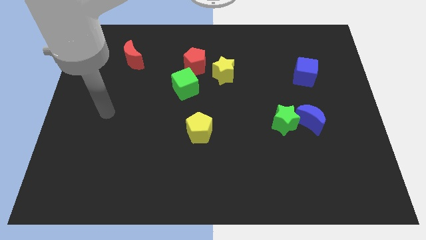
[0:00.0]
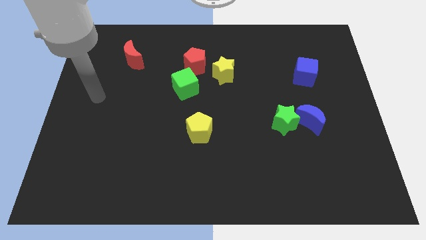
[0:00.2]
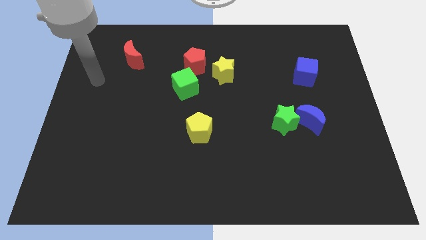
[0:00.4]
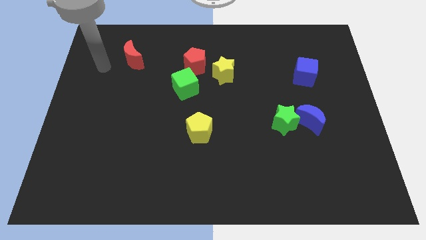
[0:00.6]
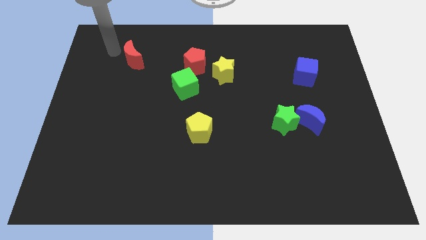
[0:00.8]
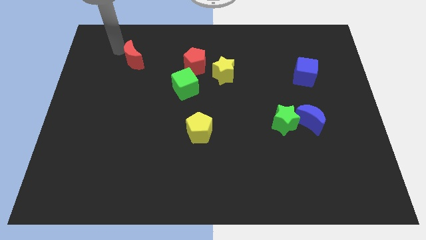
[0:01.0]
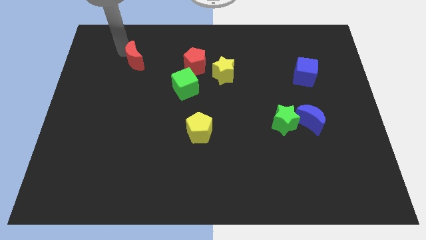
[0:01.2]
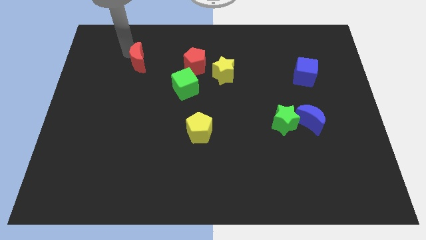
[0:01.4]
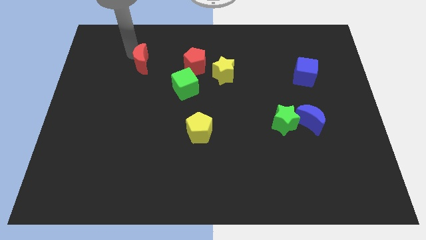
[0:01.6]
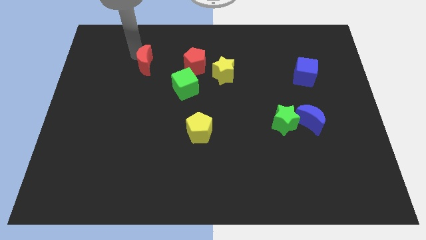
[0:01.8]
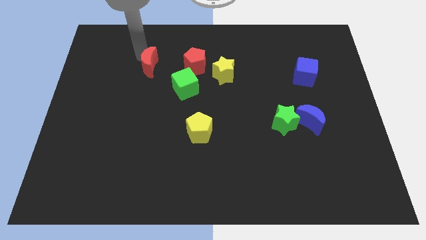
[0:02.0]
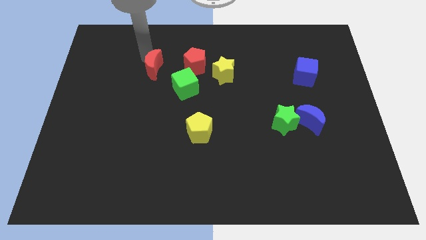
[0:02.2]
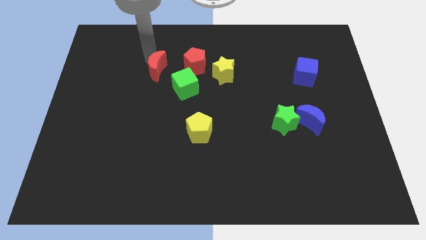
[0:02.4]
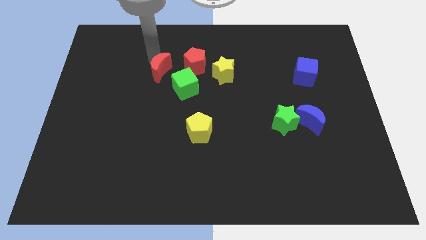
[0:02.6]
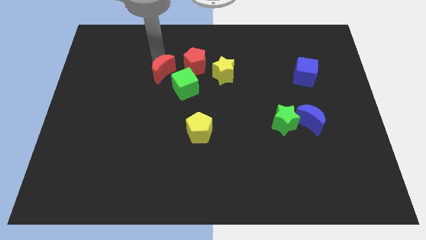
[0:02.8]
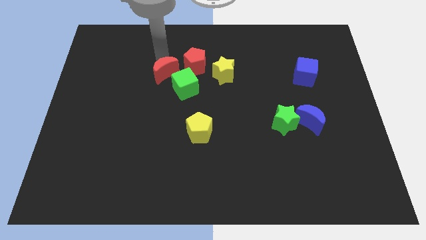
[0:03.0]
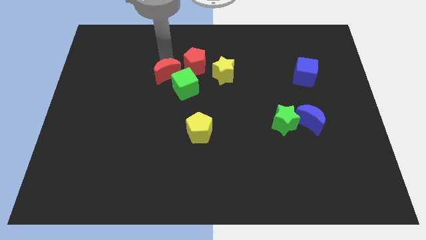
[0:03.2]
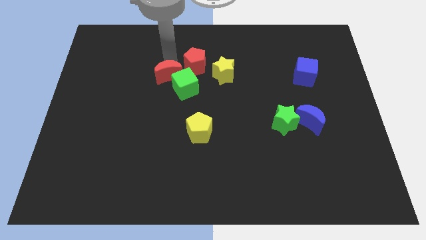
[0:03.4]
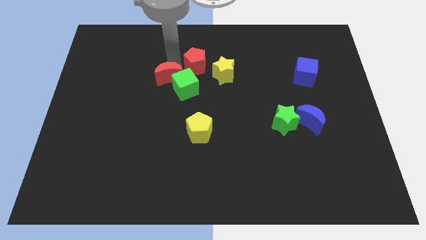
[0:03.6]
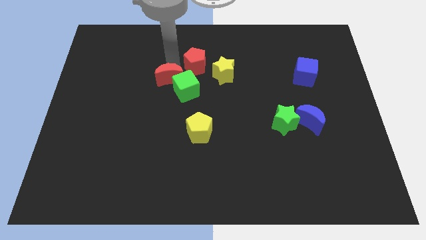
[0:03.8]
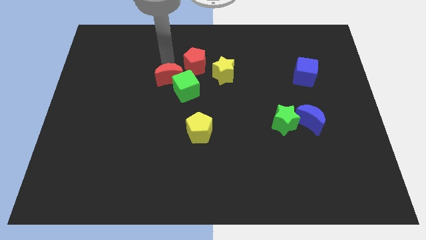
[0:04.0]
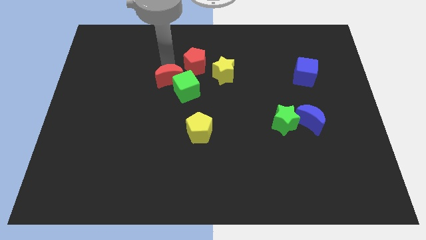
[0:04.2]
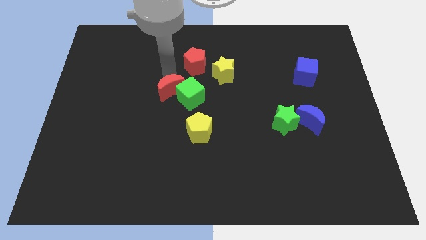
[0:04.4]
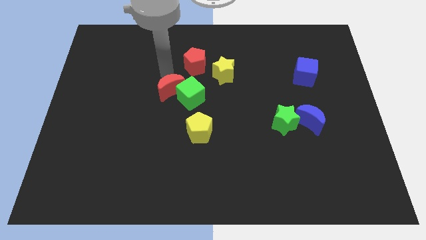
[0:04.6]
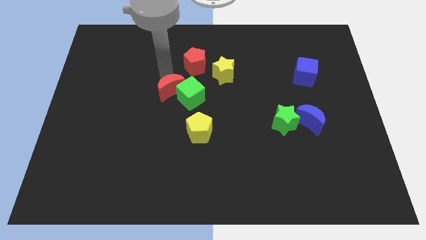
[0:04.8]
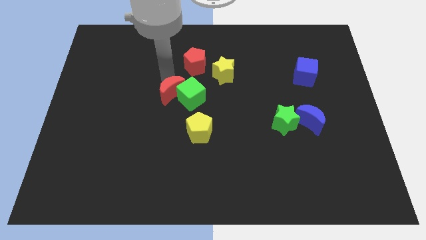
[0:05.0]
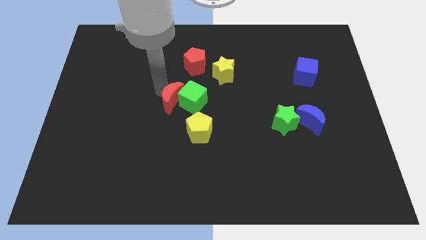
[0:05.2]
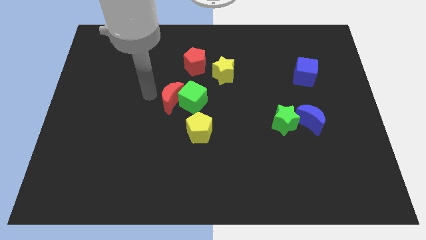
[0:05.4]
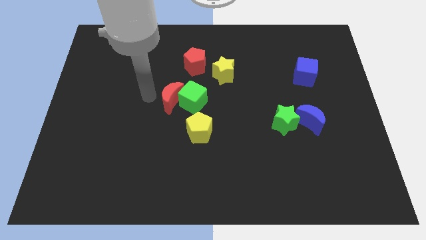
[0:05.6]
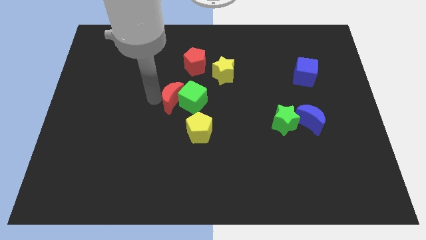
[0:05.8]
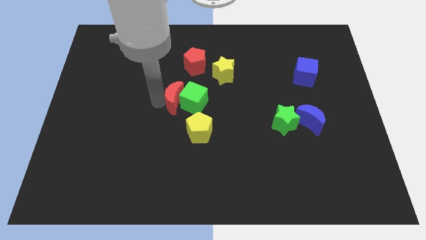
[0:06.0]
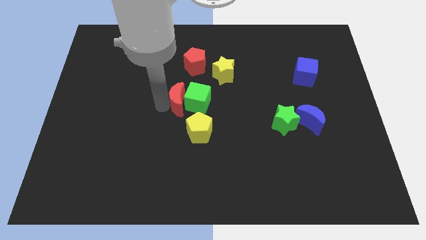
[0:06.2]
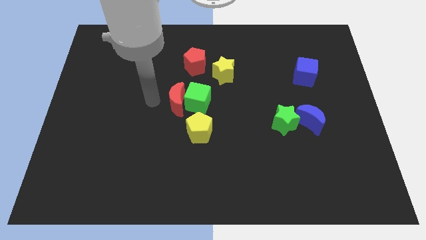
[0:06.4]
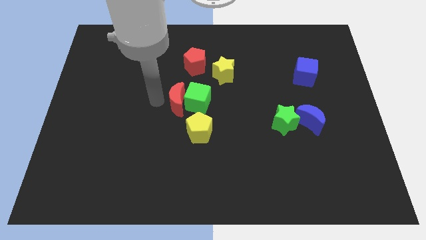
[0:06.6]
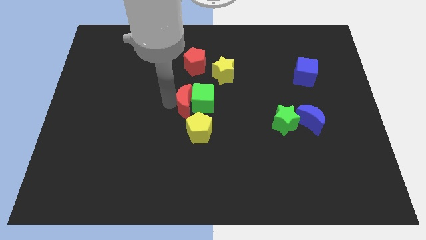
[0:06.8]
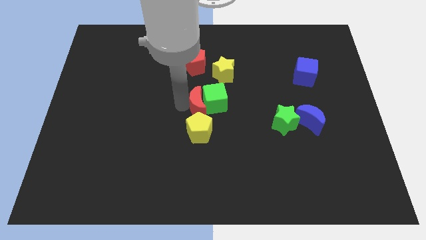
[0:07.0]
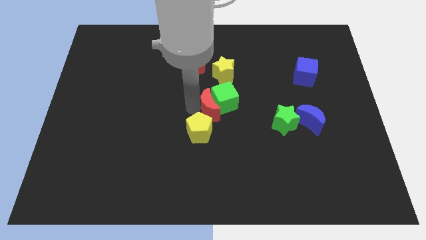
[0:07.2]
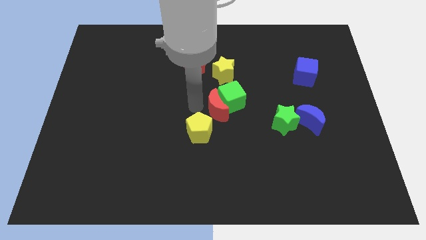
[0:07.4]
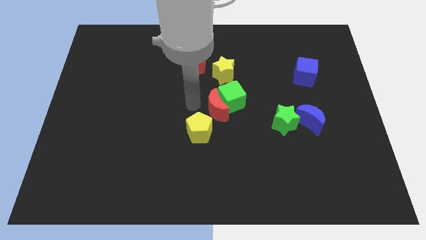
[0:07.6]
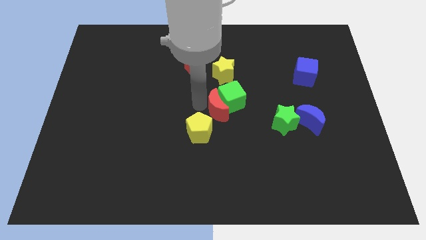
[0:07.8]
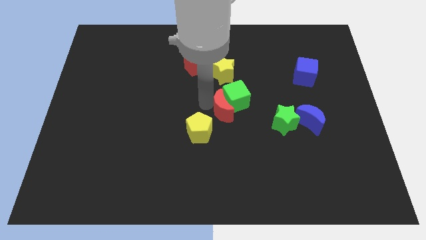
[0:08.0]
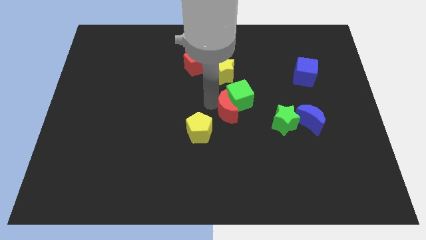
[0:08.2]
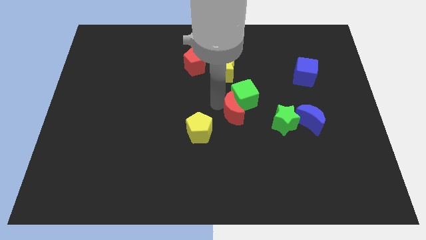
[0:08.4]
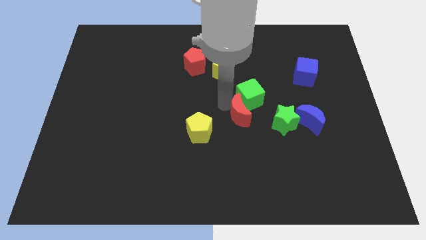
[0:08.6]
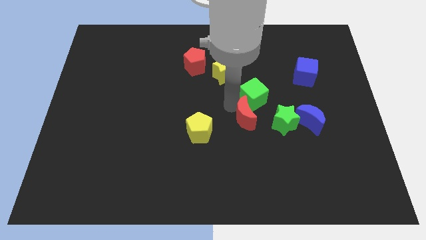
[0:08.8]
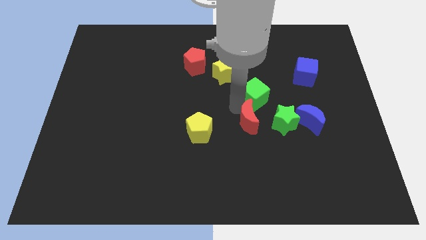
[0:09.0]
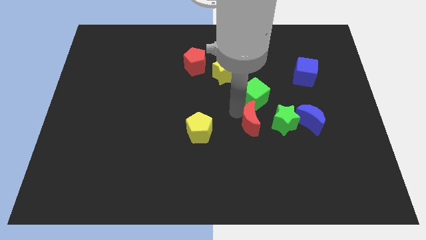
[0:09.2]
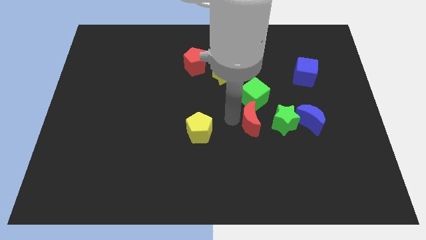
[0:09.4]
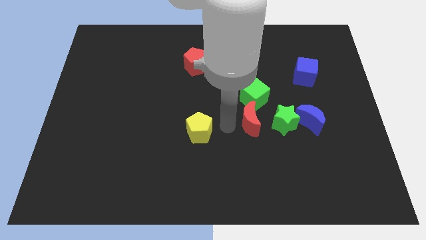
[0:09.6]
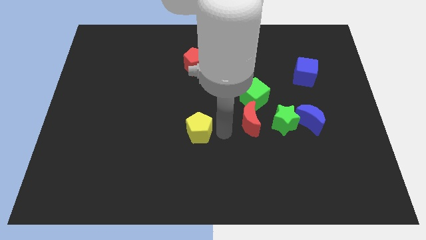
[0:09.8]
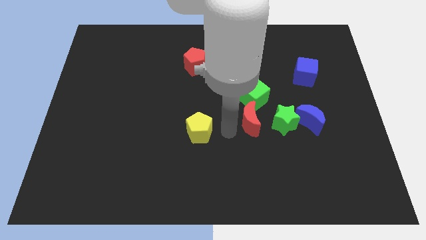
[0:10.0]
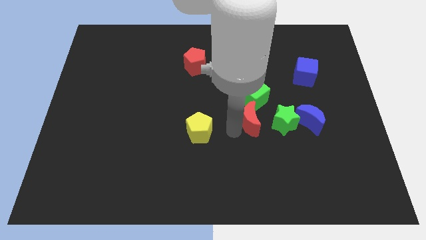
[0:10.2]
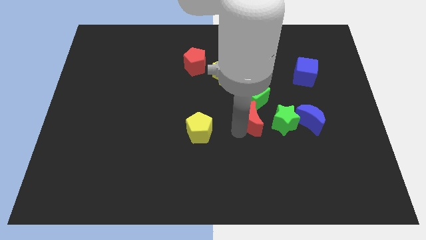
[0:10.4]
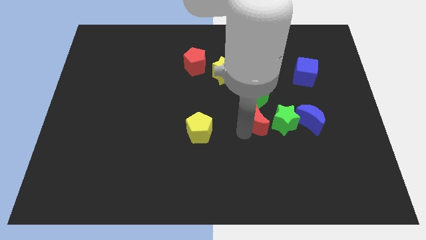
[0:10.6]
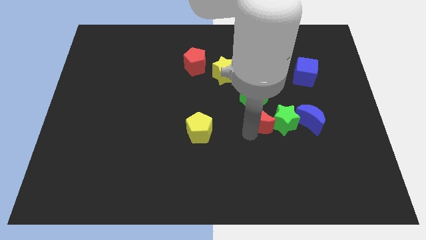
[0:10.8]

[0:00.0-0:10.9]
move the red moon next to the green star

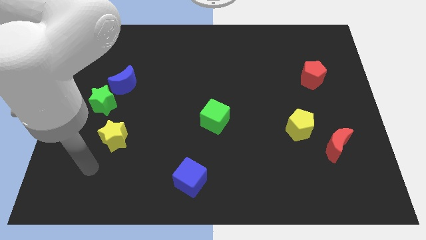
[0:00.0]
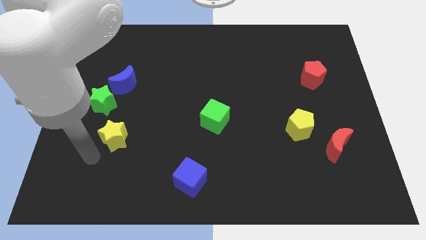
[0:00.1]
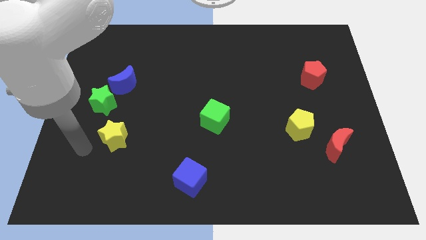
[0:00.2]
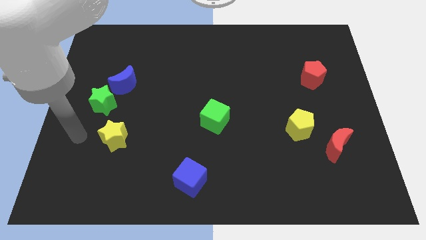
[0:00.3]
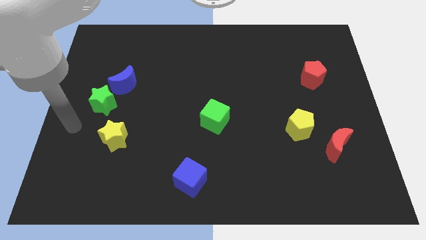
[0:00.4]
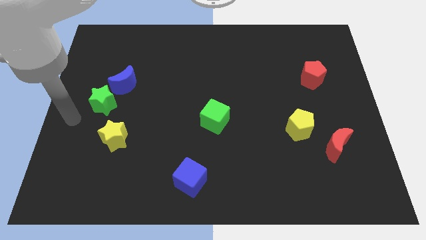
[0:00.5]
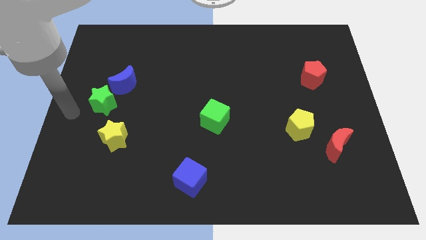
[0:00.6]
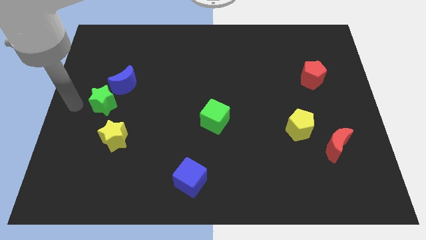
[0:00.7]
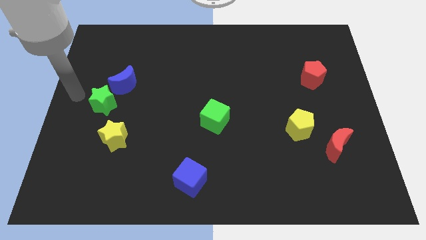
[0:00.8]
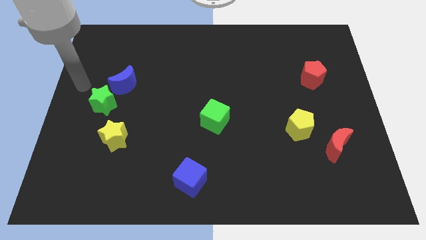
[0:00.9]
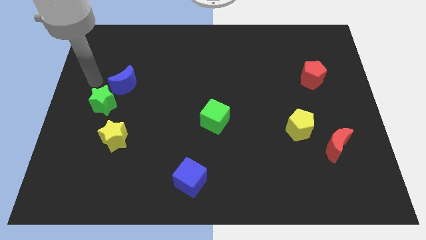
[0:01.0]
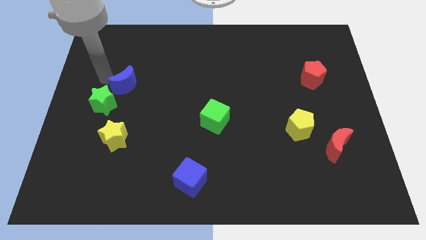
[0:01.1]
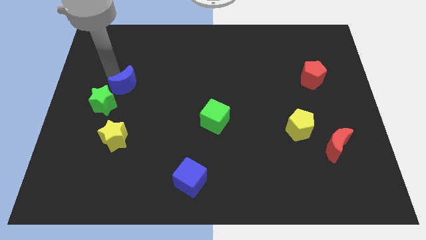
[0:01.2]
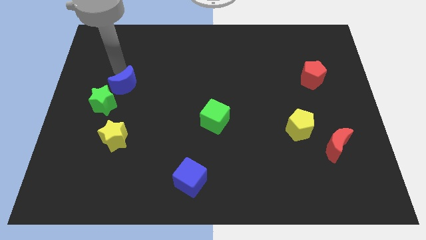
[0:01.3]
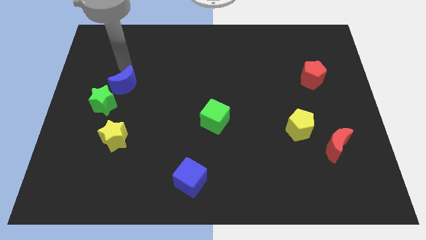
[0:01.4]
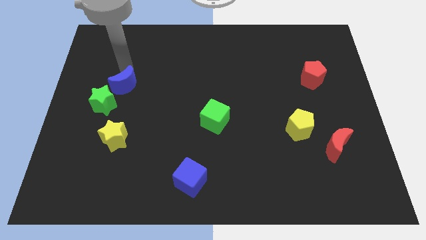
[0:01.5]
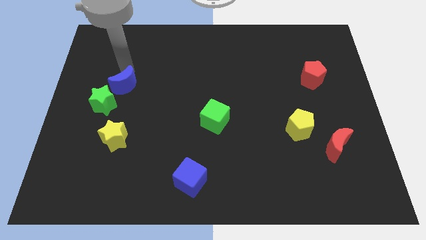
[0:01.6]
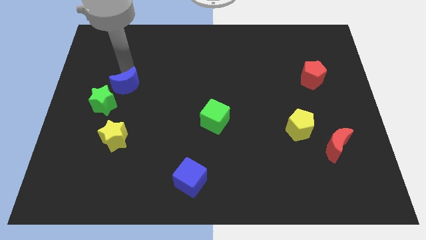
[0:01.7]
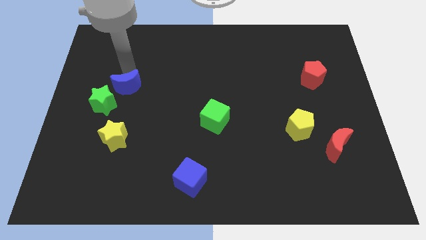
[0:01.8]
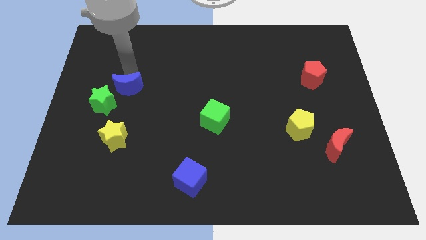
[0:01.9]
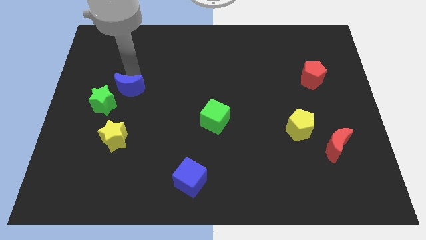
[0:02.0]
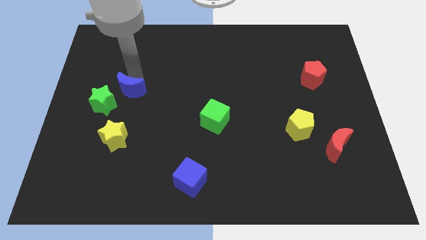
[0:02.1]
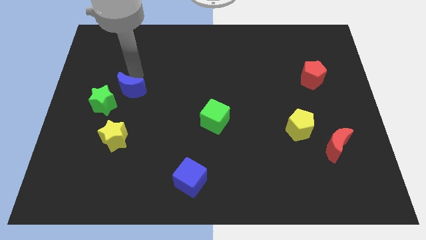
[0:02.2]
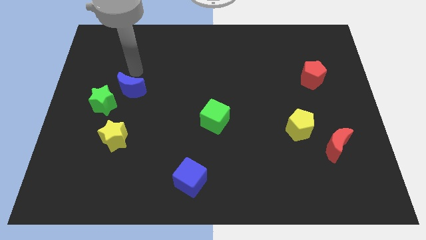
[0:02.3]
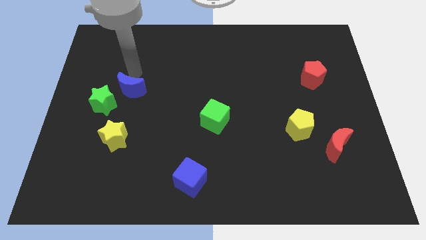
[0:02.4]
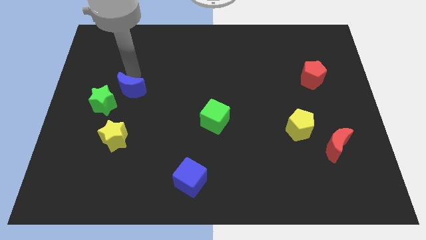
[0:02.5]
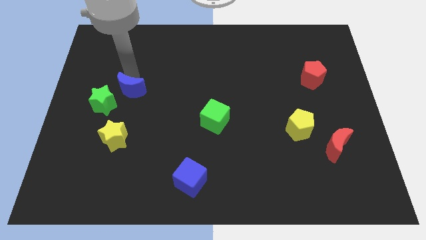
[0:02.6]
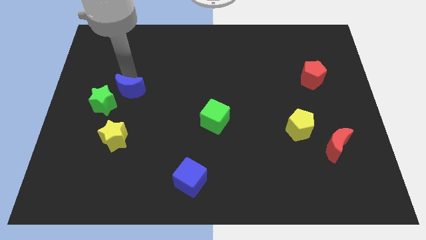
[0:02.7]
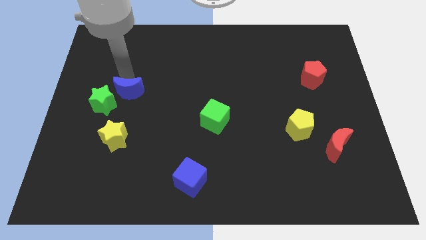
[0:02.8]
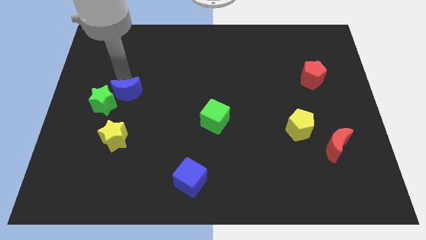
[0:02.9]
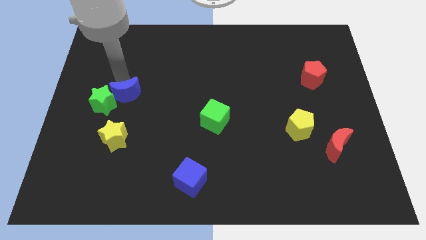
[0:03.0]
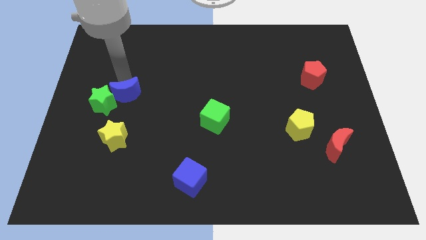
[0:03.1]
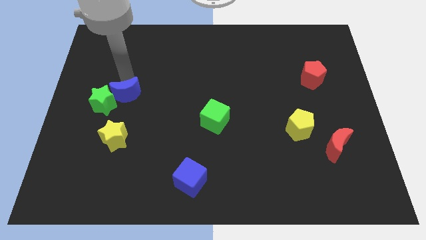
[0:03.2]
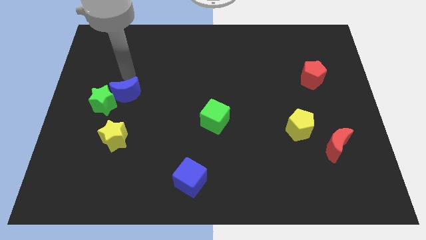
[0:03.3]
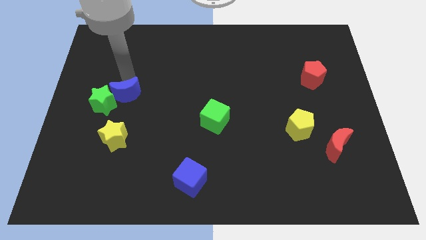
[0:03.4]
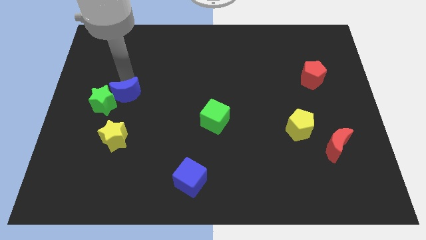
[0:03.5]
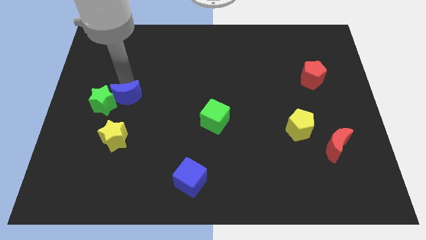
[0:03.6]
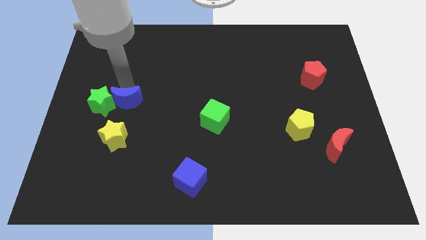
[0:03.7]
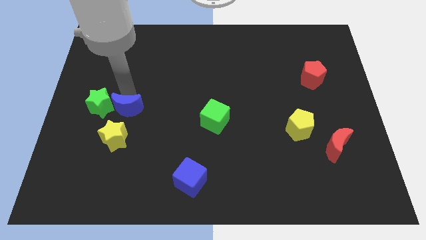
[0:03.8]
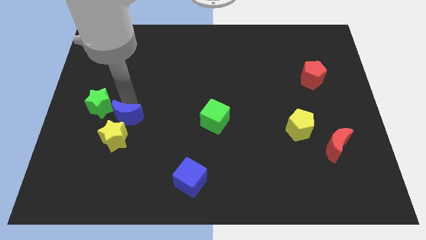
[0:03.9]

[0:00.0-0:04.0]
push the blue moon to the yellow star
